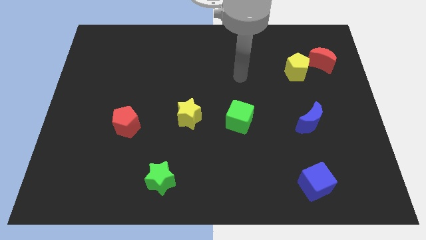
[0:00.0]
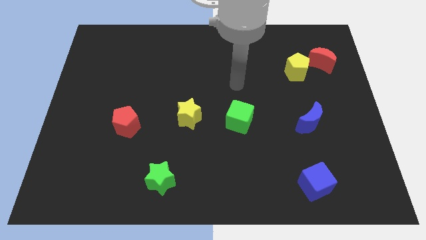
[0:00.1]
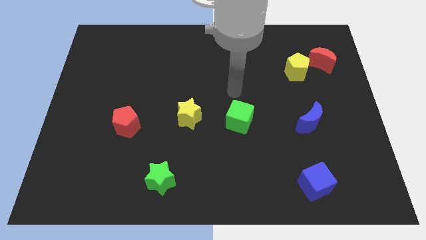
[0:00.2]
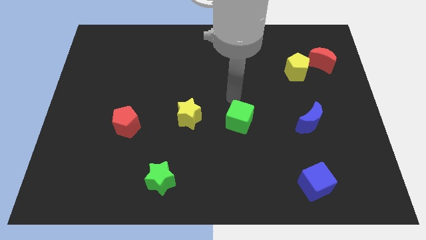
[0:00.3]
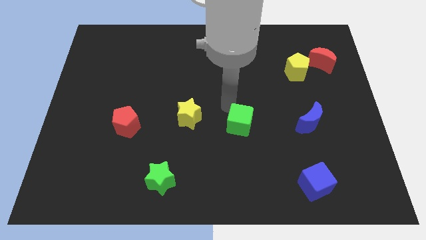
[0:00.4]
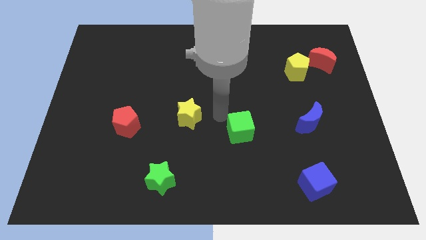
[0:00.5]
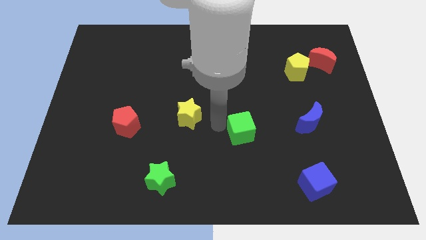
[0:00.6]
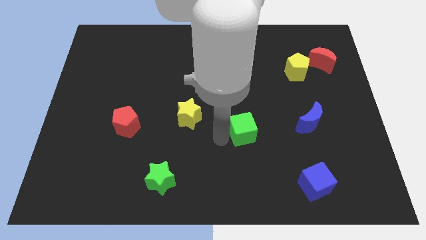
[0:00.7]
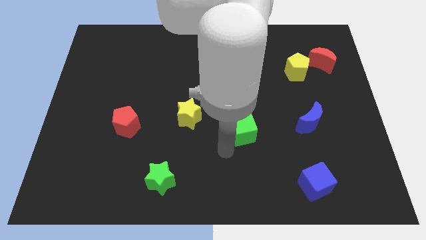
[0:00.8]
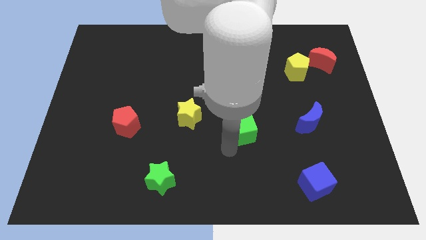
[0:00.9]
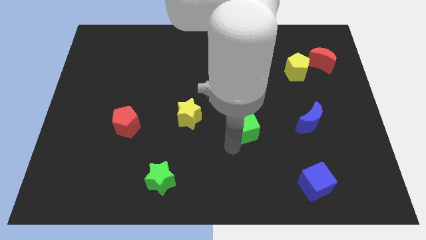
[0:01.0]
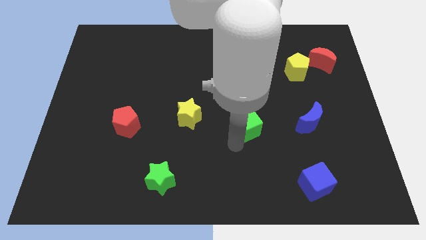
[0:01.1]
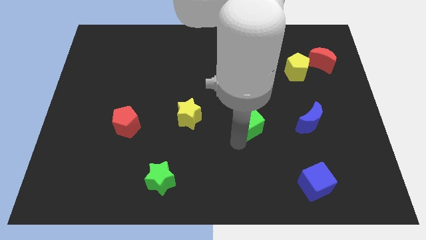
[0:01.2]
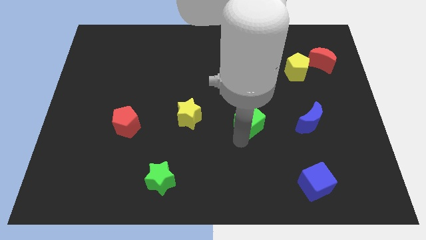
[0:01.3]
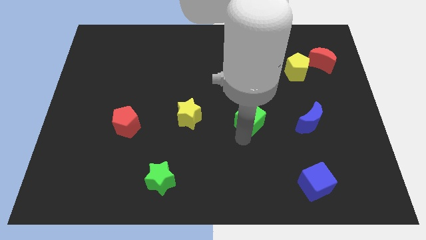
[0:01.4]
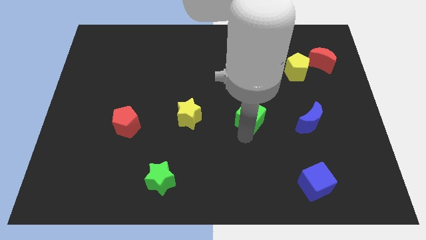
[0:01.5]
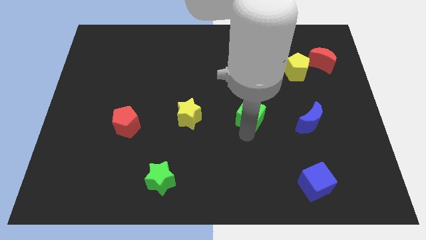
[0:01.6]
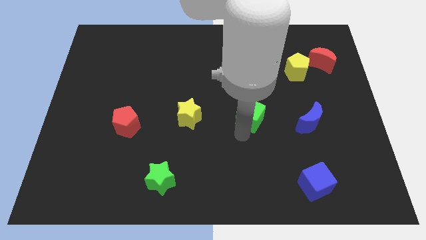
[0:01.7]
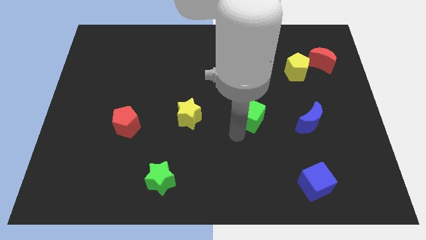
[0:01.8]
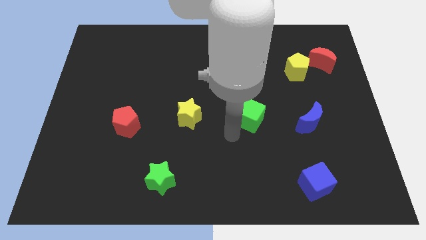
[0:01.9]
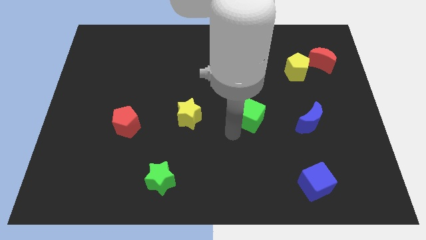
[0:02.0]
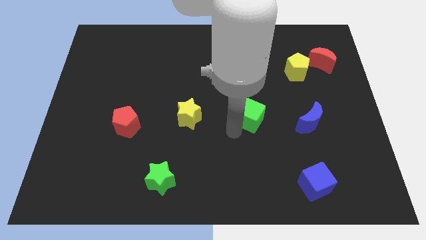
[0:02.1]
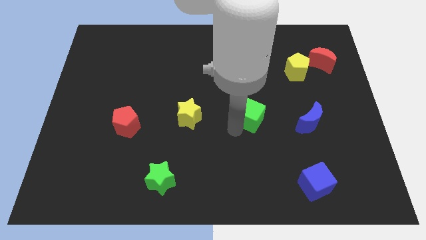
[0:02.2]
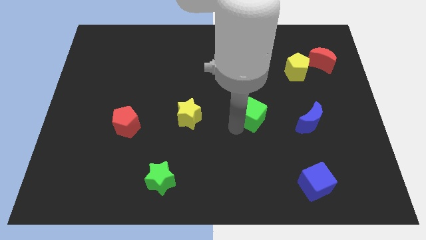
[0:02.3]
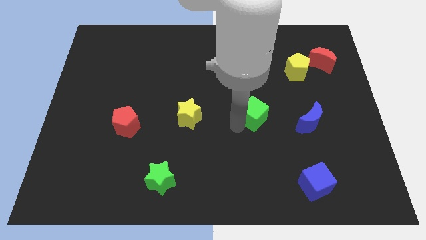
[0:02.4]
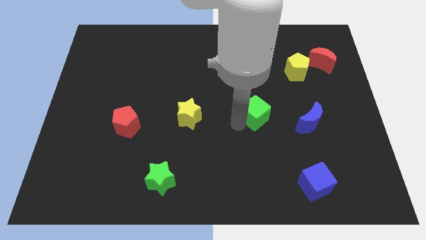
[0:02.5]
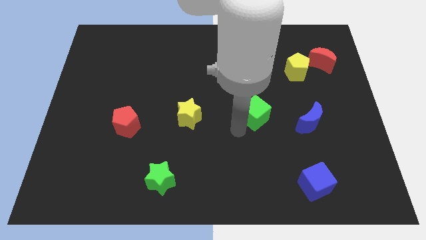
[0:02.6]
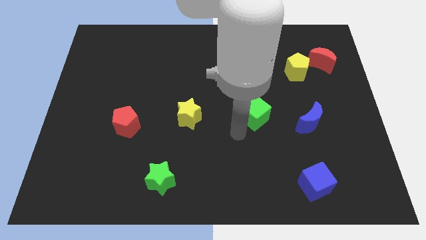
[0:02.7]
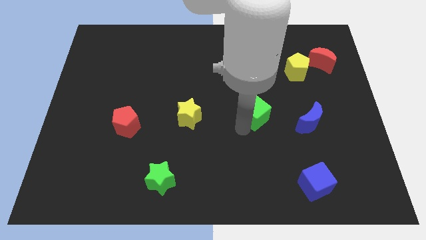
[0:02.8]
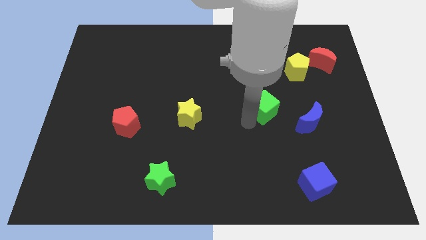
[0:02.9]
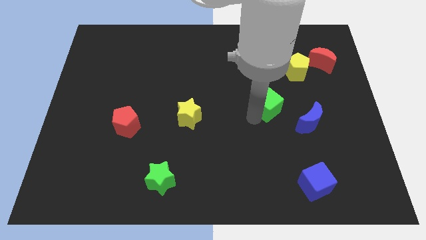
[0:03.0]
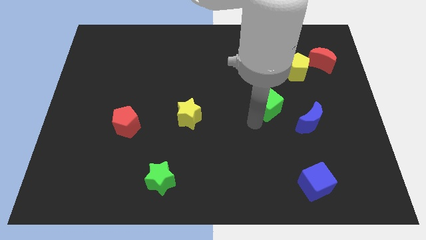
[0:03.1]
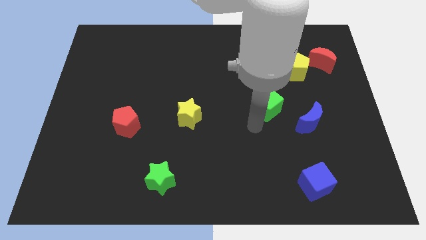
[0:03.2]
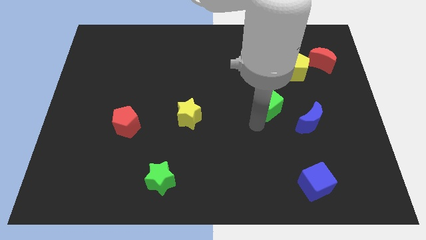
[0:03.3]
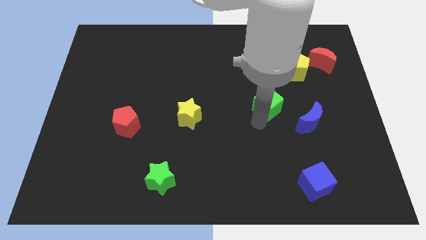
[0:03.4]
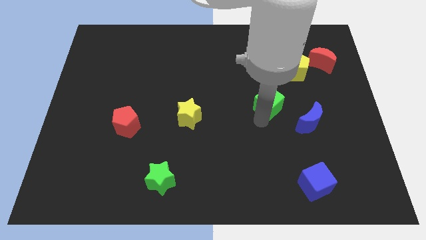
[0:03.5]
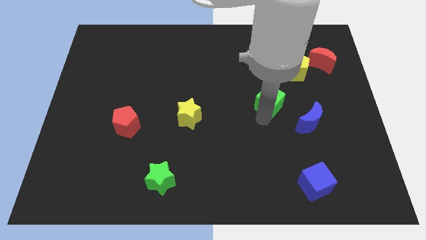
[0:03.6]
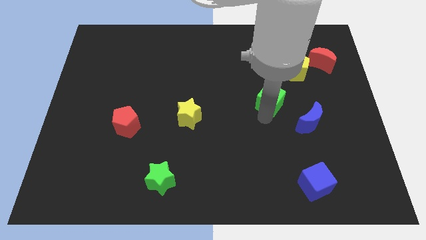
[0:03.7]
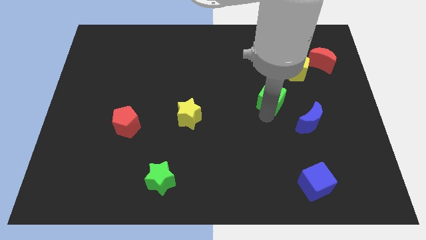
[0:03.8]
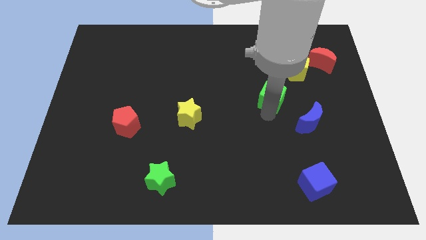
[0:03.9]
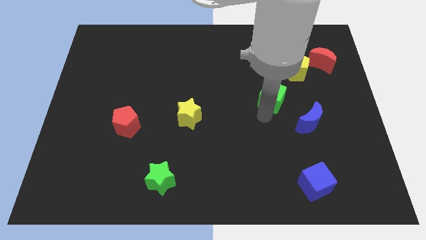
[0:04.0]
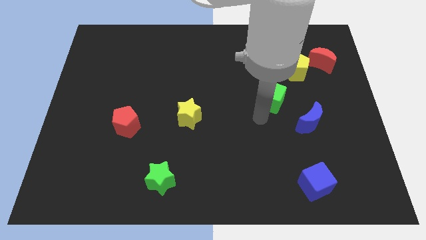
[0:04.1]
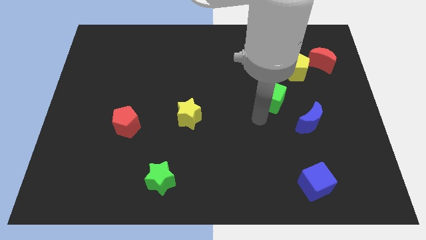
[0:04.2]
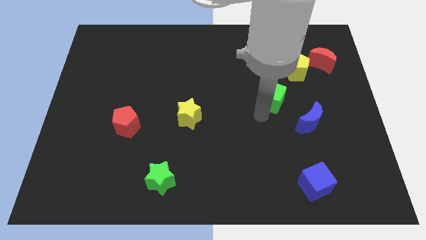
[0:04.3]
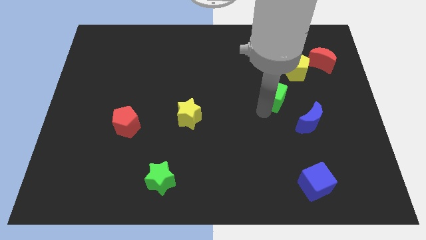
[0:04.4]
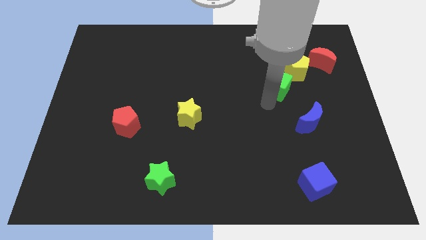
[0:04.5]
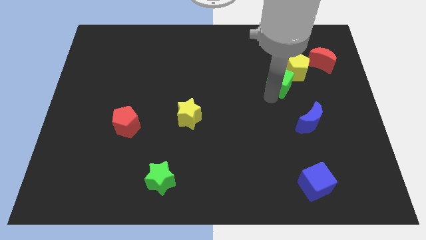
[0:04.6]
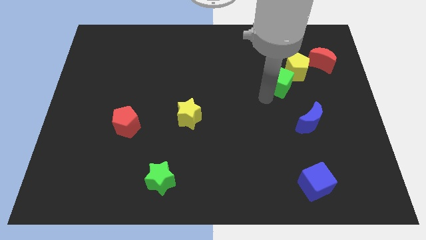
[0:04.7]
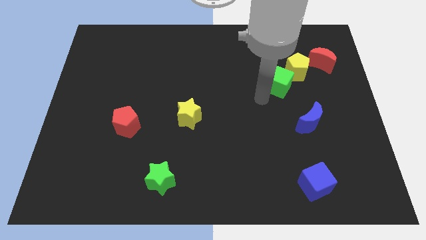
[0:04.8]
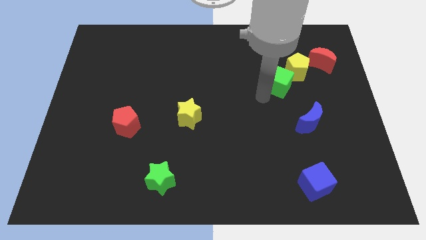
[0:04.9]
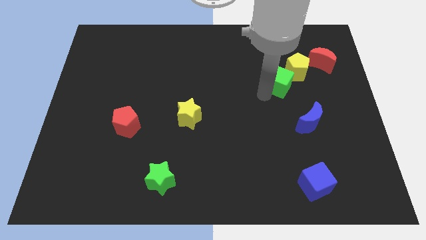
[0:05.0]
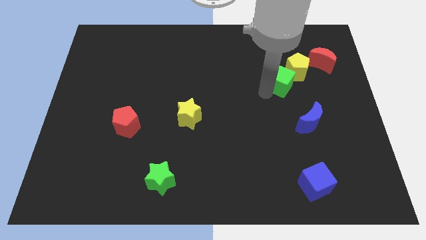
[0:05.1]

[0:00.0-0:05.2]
put the green cube close to the yellow pentagon

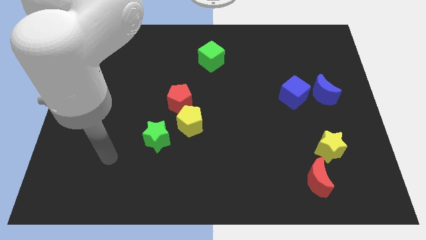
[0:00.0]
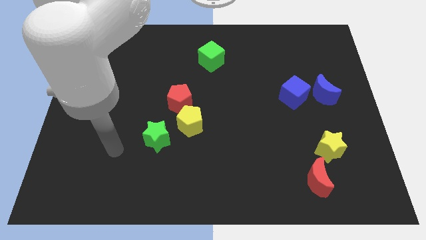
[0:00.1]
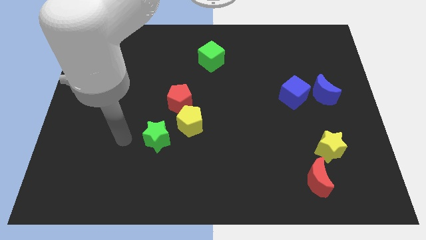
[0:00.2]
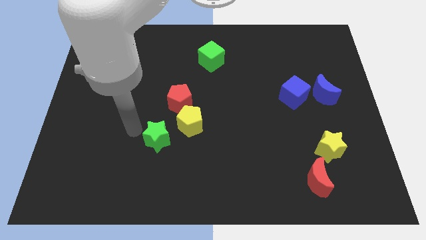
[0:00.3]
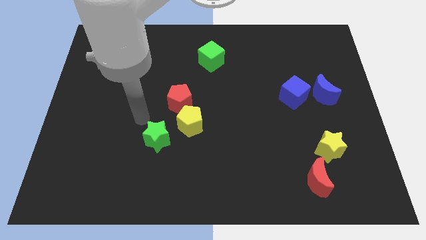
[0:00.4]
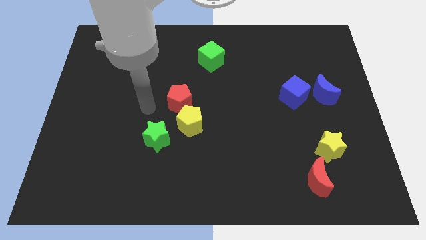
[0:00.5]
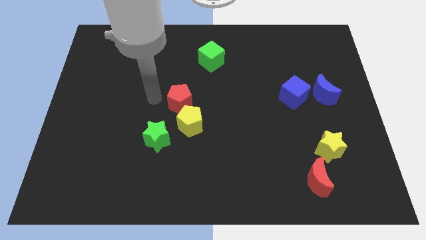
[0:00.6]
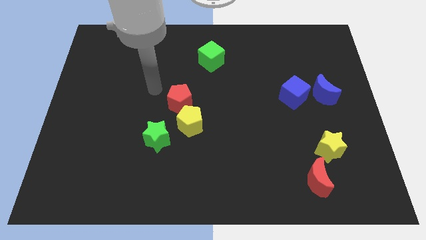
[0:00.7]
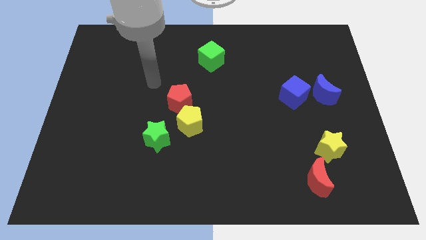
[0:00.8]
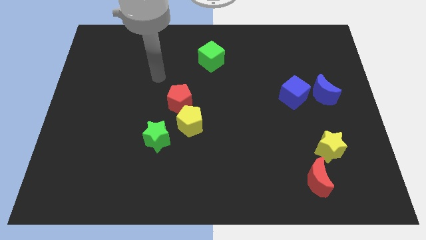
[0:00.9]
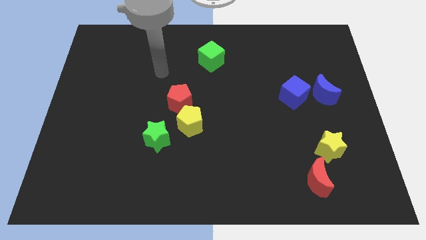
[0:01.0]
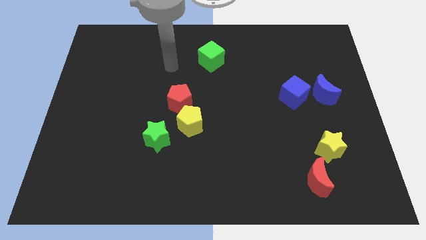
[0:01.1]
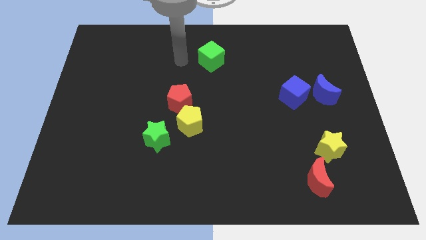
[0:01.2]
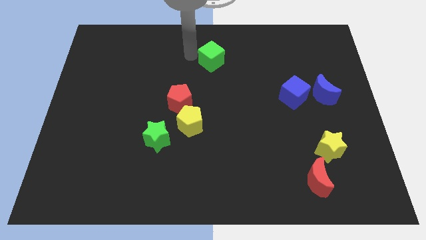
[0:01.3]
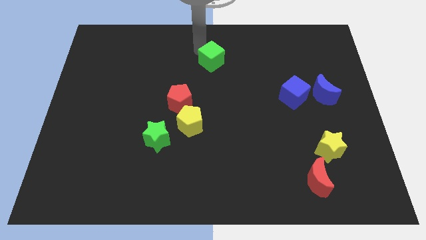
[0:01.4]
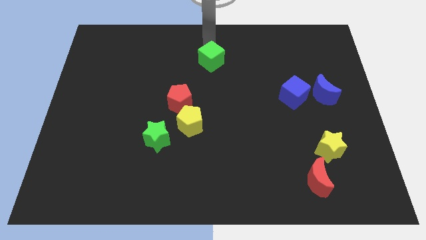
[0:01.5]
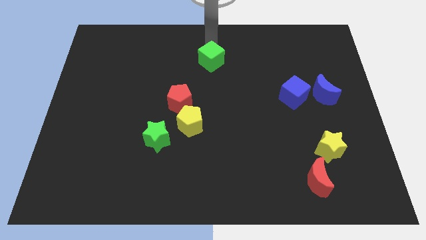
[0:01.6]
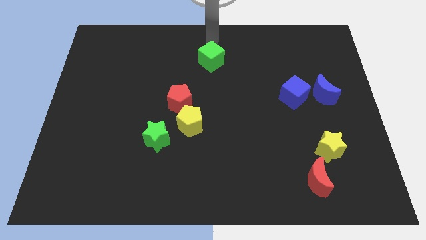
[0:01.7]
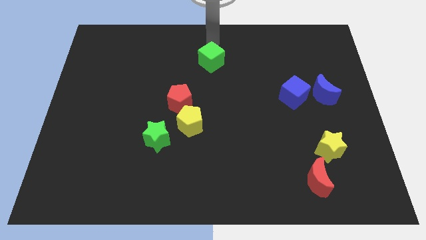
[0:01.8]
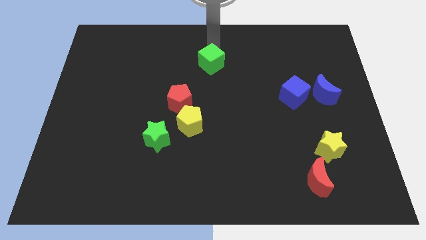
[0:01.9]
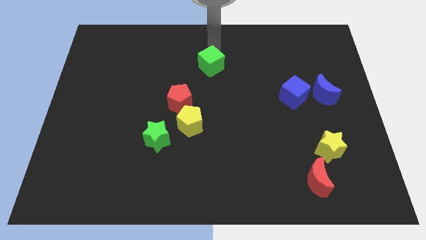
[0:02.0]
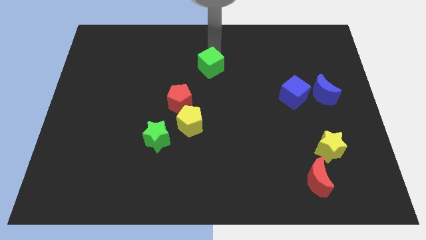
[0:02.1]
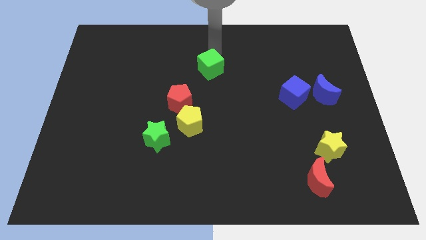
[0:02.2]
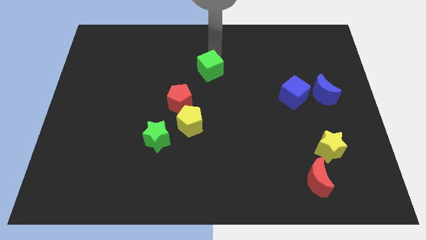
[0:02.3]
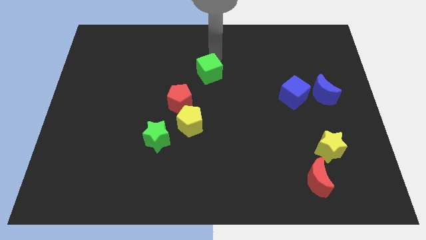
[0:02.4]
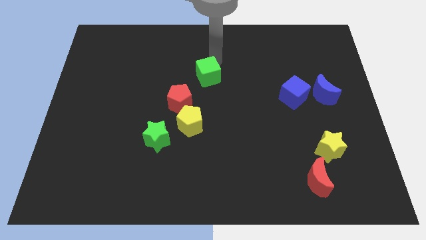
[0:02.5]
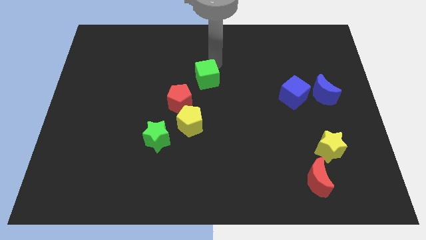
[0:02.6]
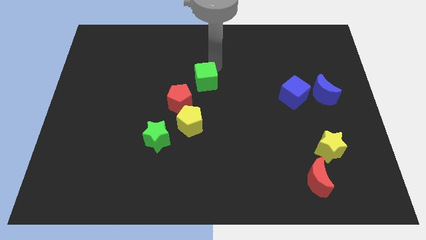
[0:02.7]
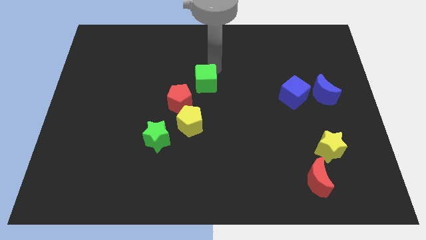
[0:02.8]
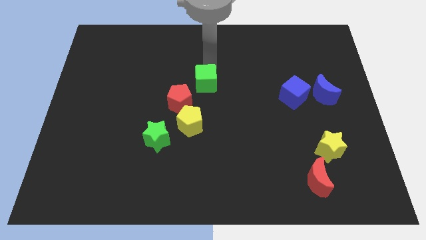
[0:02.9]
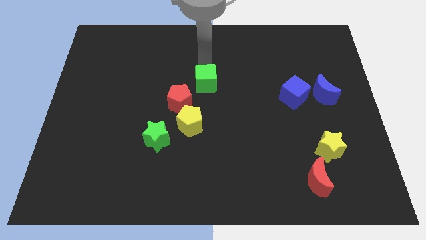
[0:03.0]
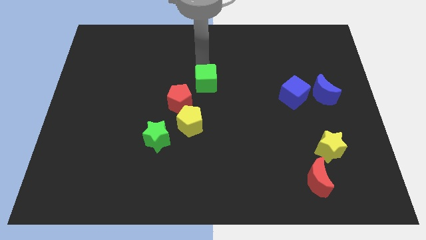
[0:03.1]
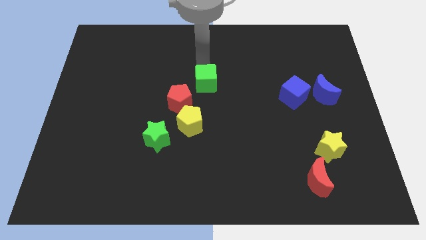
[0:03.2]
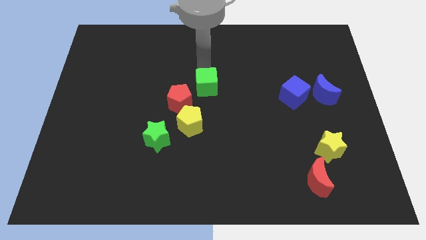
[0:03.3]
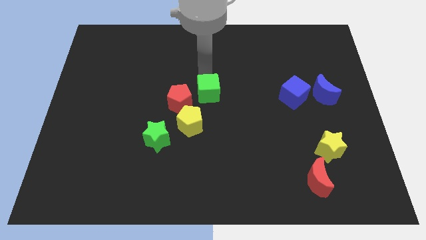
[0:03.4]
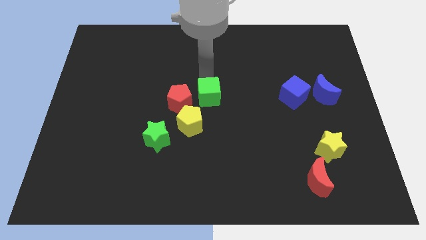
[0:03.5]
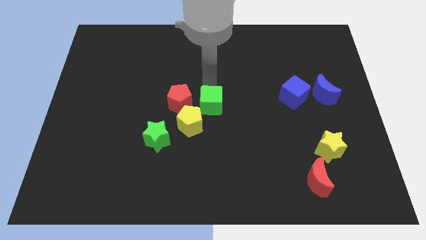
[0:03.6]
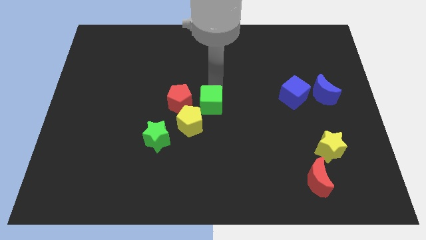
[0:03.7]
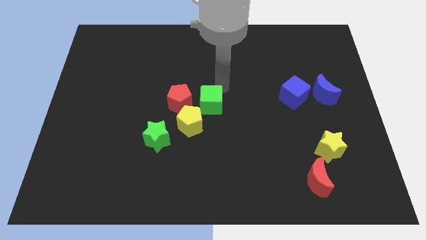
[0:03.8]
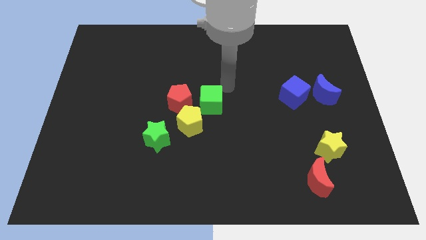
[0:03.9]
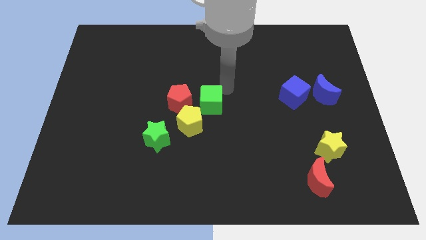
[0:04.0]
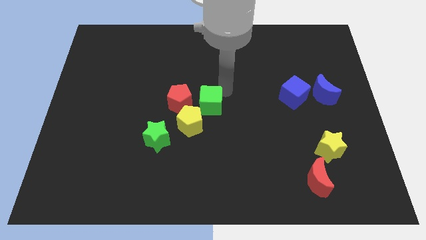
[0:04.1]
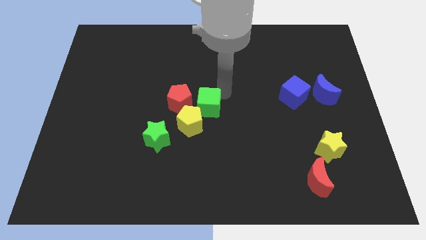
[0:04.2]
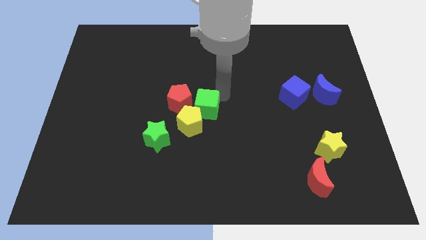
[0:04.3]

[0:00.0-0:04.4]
move the green cube next to the yellow pentagon
